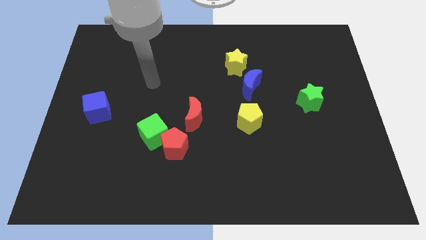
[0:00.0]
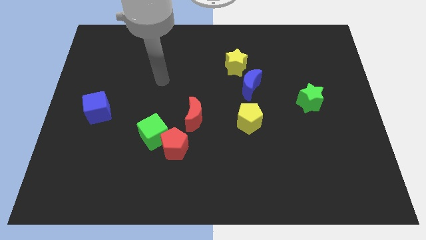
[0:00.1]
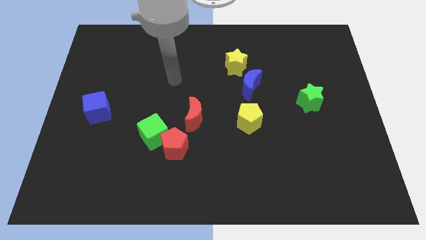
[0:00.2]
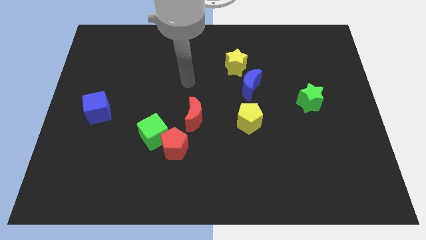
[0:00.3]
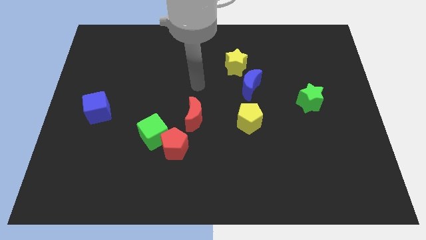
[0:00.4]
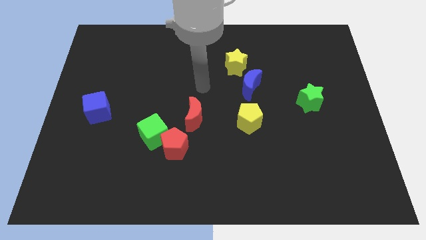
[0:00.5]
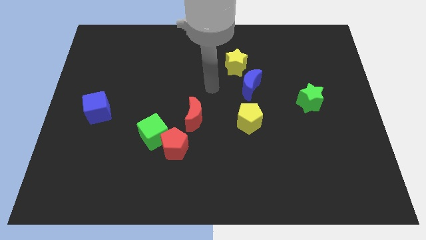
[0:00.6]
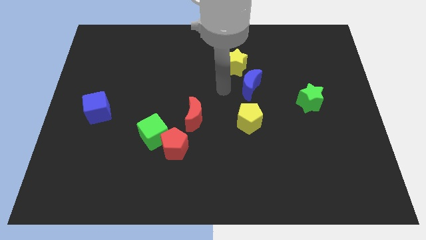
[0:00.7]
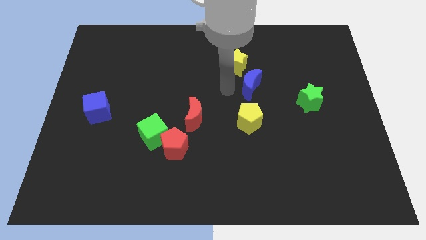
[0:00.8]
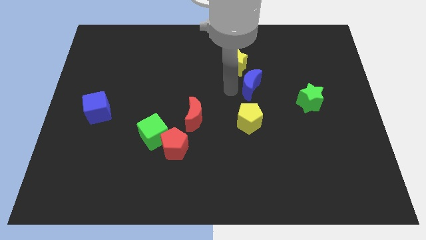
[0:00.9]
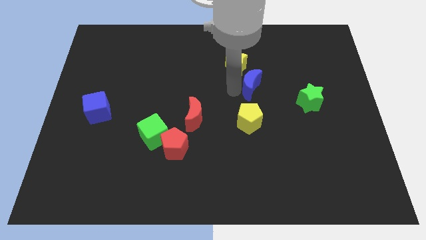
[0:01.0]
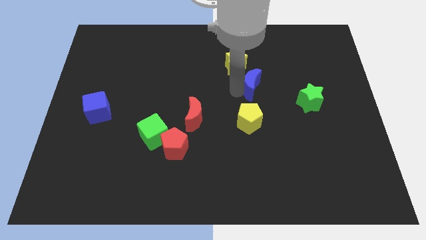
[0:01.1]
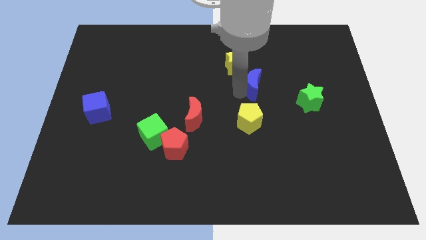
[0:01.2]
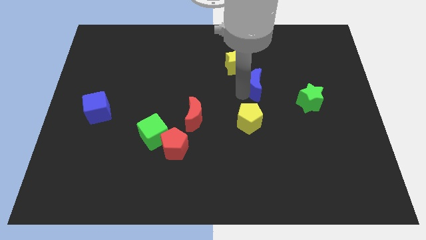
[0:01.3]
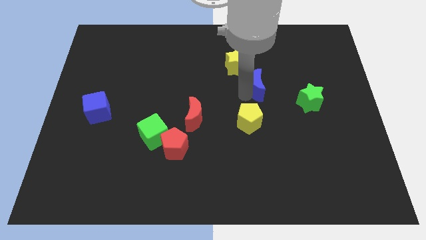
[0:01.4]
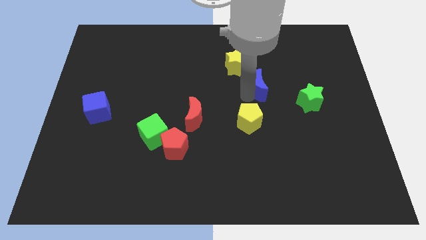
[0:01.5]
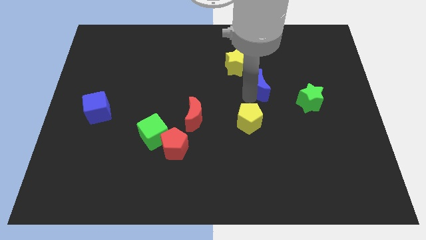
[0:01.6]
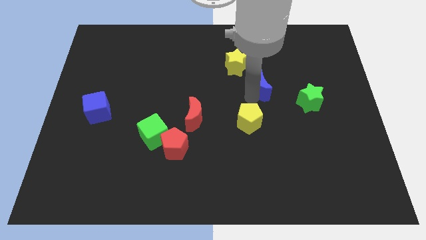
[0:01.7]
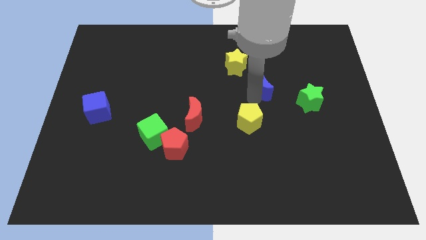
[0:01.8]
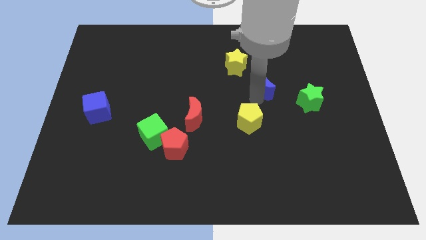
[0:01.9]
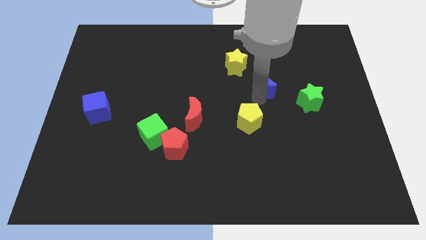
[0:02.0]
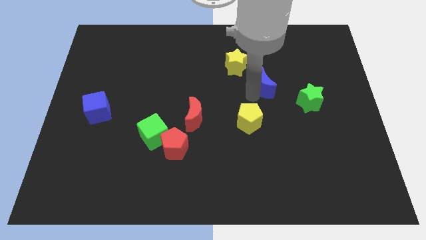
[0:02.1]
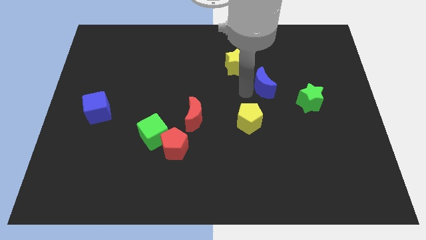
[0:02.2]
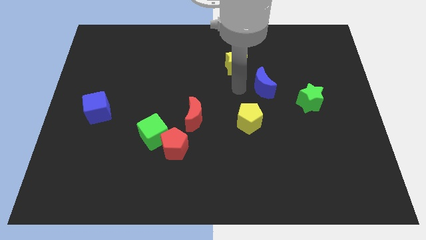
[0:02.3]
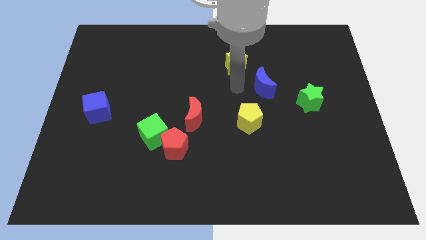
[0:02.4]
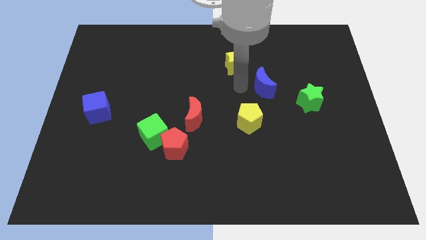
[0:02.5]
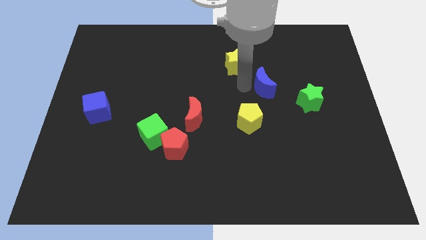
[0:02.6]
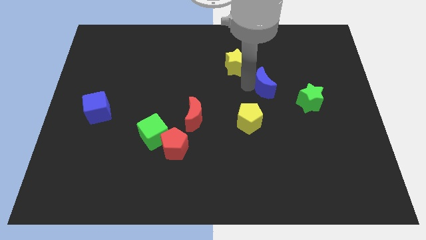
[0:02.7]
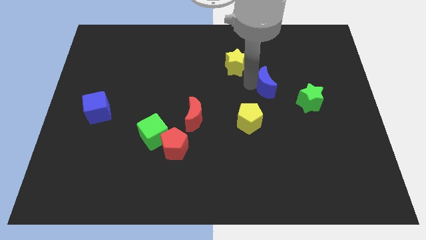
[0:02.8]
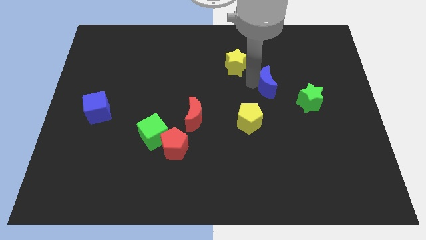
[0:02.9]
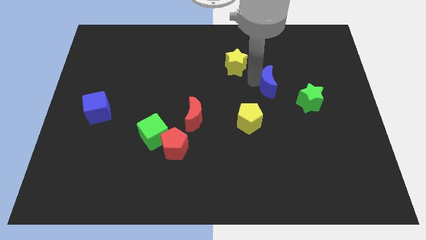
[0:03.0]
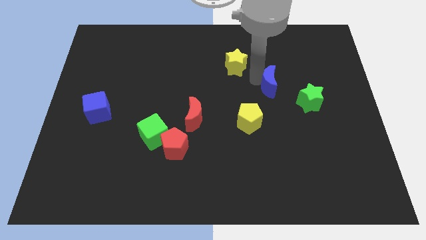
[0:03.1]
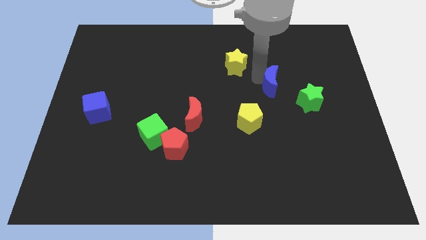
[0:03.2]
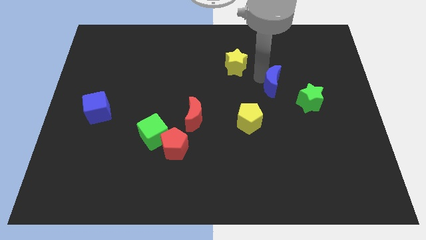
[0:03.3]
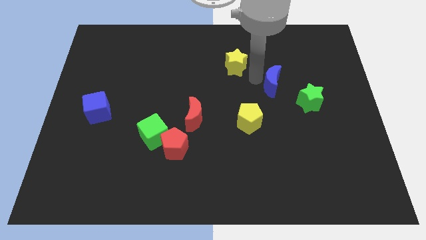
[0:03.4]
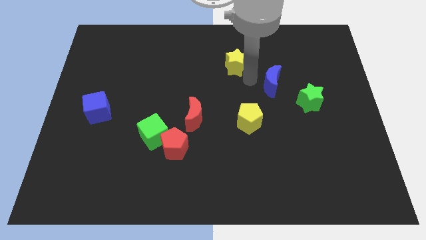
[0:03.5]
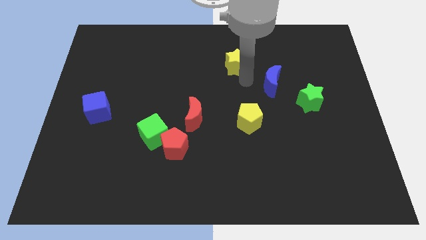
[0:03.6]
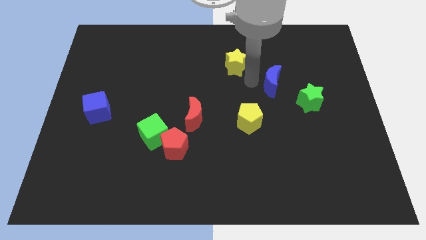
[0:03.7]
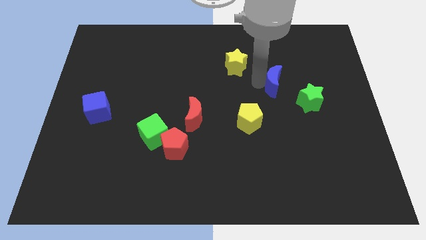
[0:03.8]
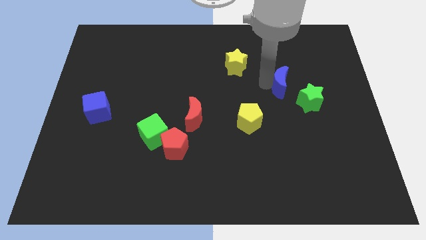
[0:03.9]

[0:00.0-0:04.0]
slightly push the blue moon to the right

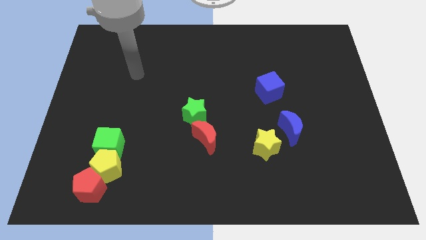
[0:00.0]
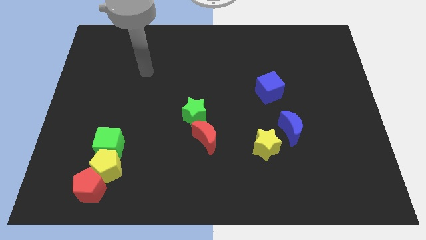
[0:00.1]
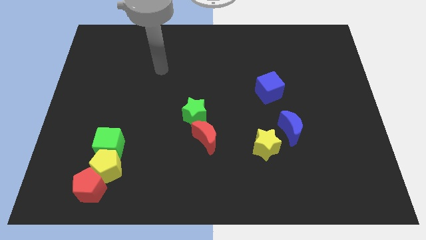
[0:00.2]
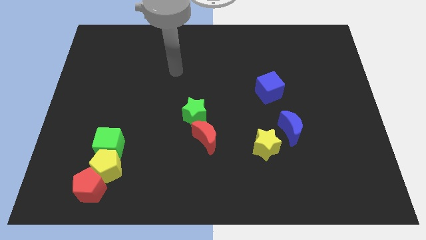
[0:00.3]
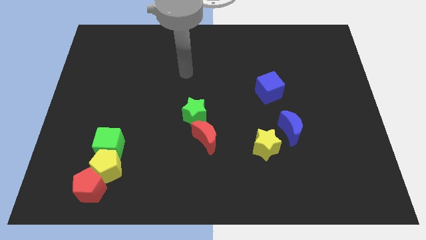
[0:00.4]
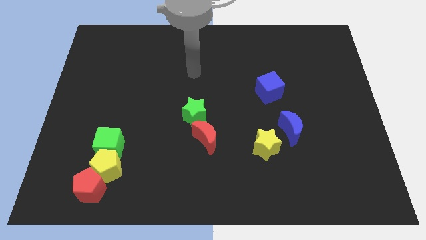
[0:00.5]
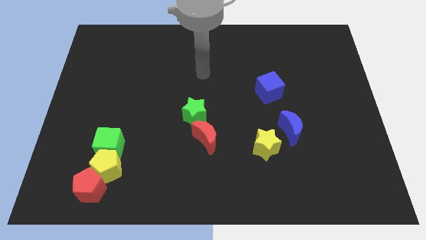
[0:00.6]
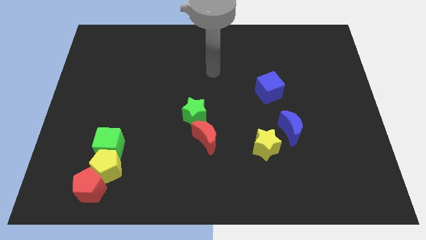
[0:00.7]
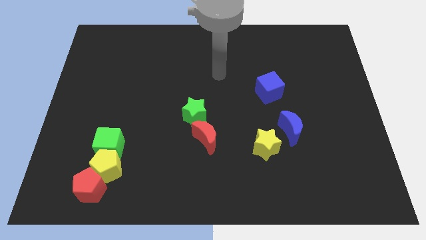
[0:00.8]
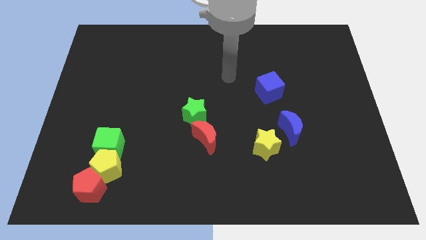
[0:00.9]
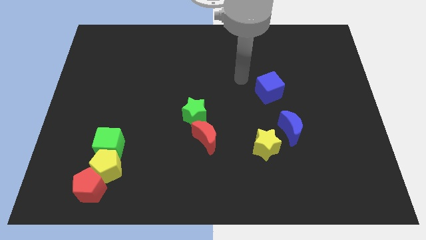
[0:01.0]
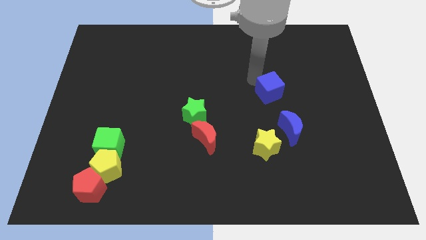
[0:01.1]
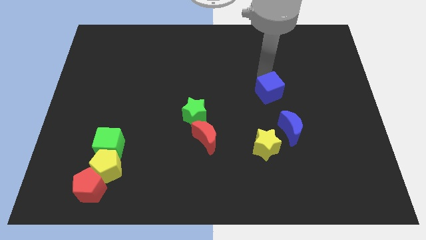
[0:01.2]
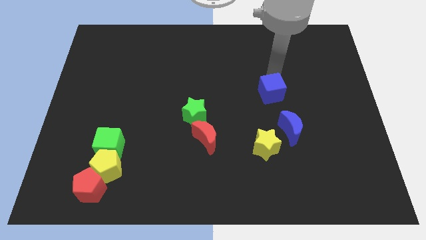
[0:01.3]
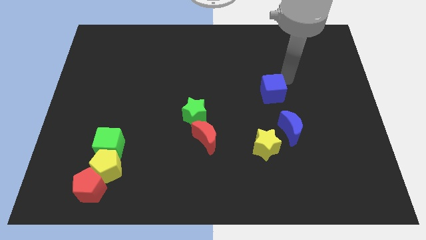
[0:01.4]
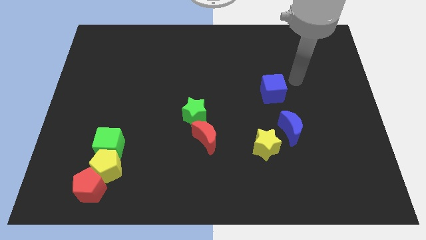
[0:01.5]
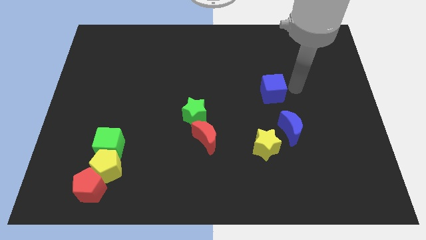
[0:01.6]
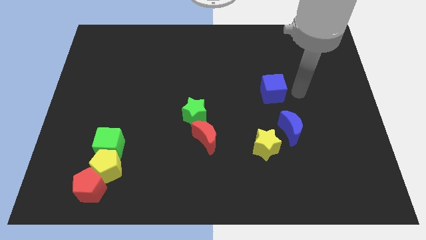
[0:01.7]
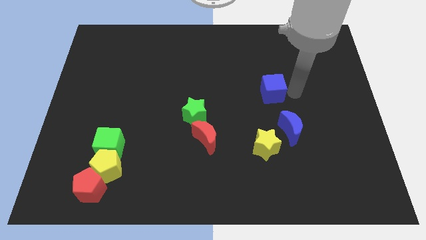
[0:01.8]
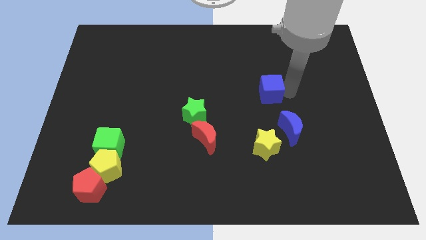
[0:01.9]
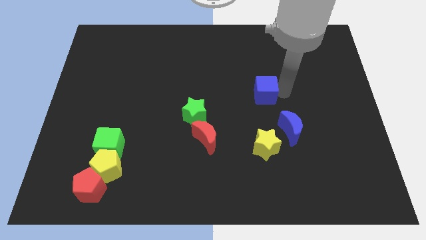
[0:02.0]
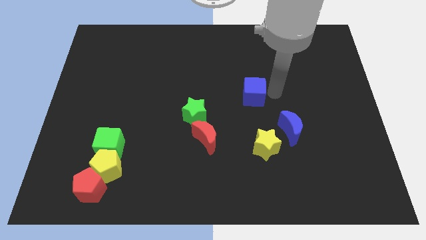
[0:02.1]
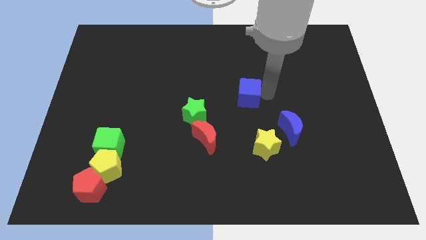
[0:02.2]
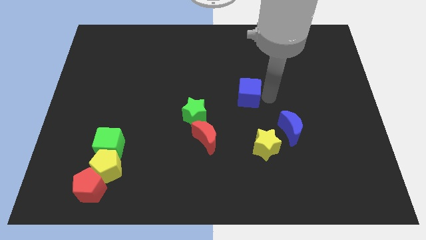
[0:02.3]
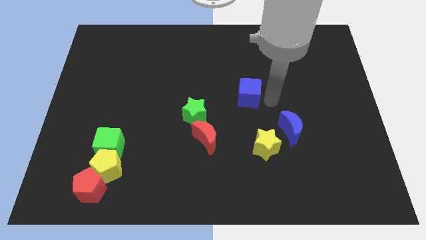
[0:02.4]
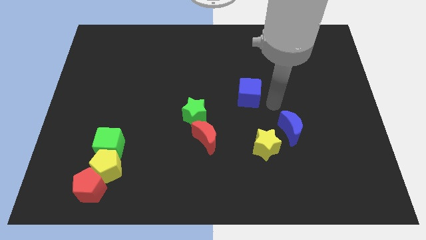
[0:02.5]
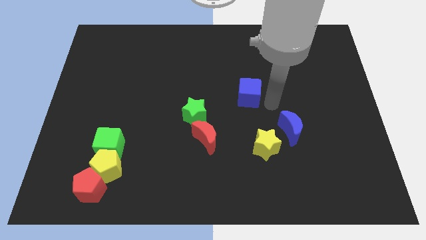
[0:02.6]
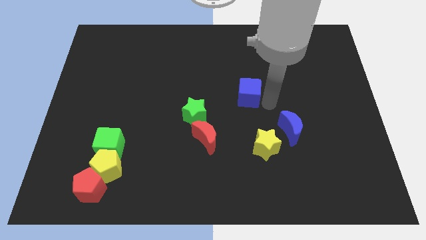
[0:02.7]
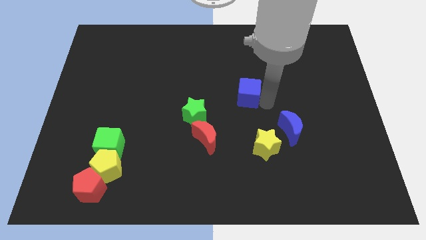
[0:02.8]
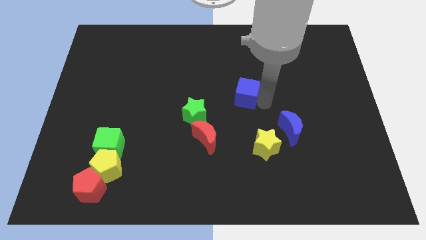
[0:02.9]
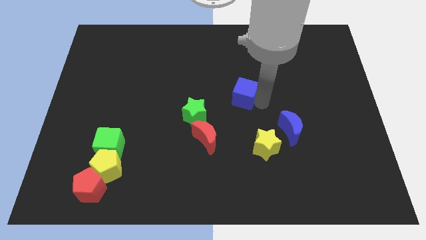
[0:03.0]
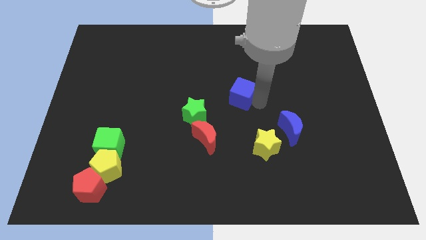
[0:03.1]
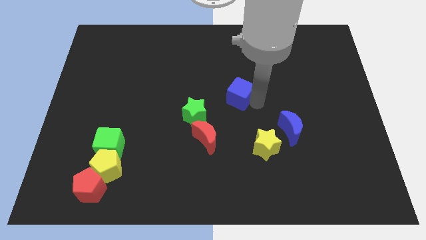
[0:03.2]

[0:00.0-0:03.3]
slightly move the blue cube left

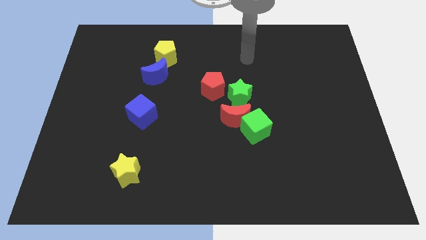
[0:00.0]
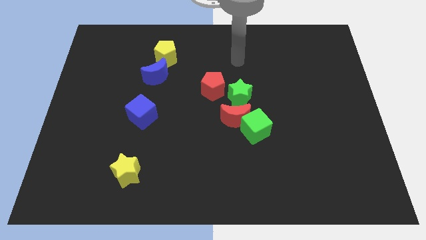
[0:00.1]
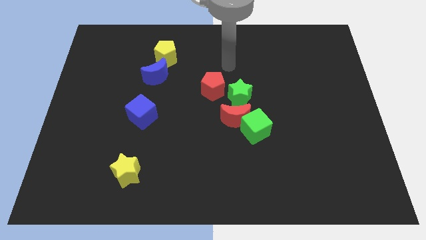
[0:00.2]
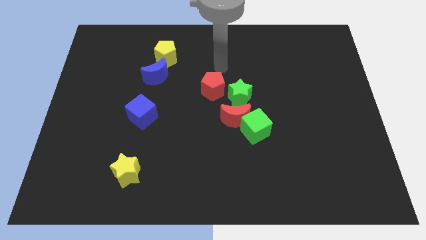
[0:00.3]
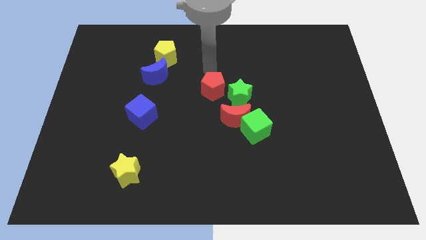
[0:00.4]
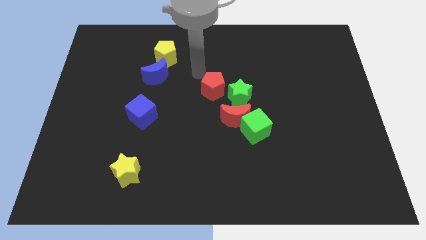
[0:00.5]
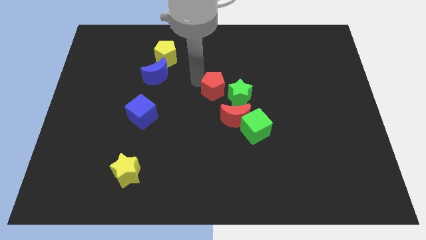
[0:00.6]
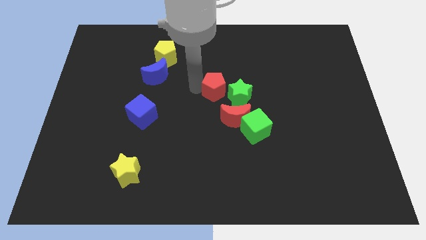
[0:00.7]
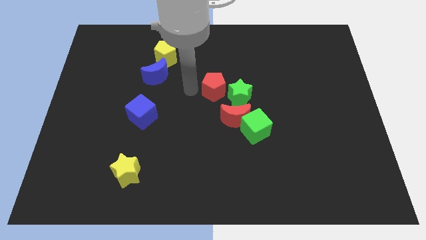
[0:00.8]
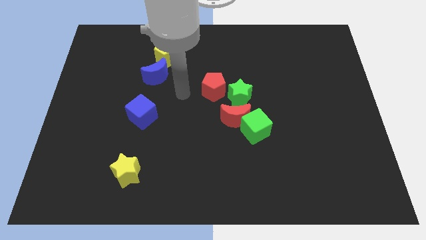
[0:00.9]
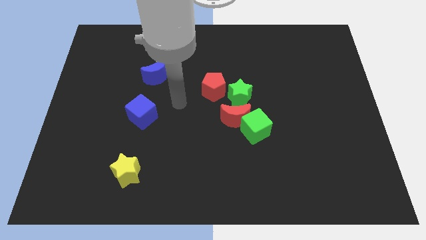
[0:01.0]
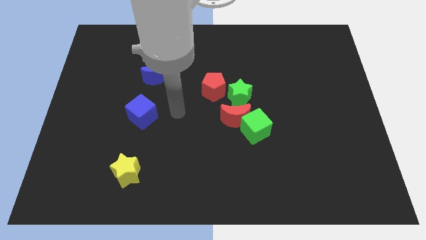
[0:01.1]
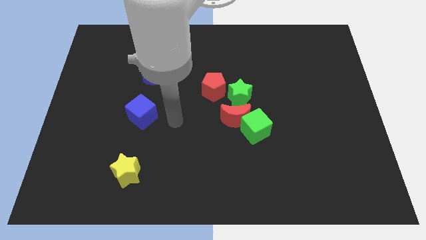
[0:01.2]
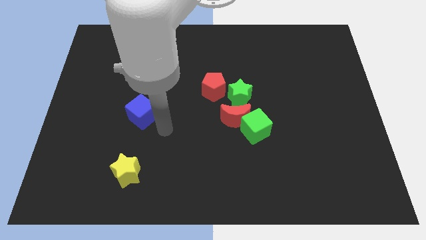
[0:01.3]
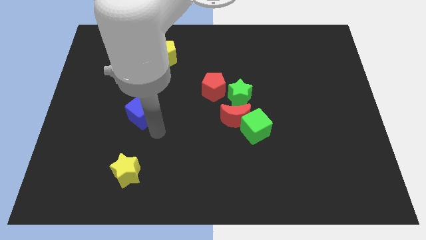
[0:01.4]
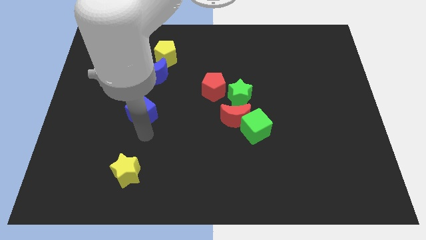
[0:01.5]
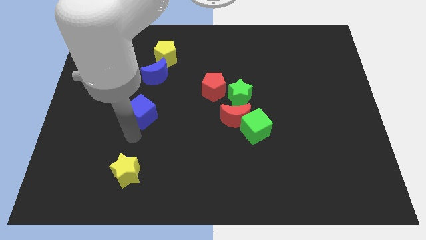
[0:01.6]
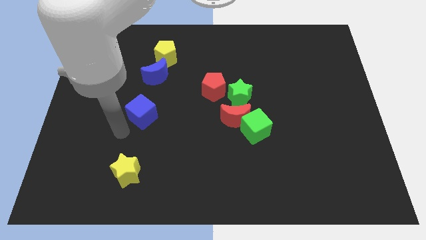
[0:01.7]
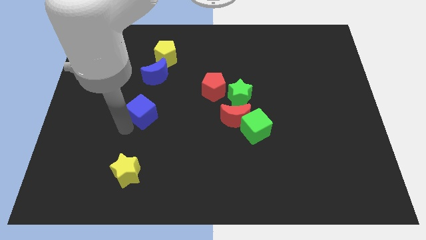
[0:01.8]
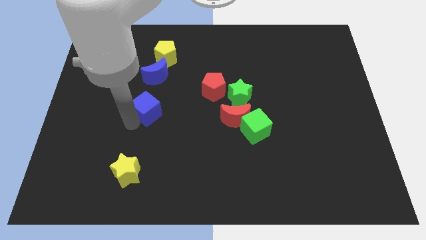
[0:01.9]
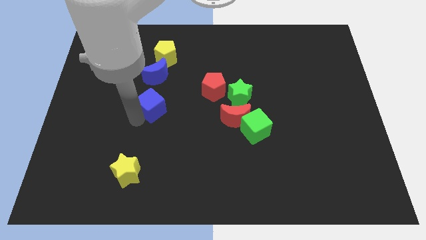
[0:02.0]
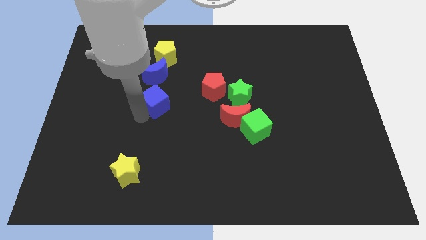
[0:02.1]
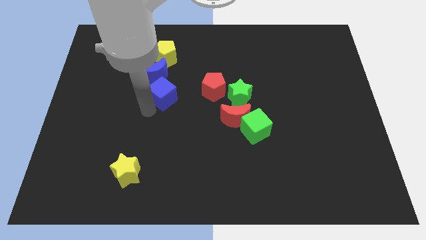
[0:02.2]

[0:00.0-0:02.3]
push the blue cube a little up and to the right diagonally
